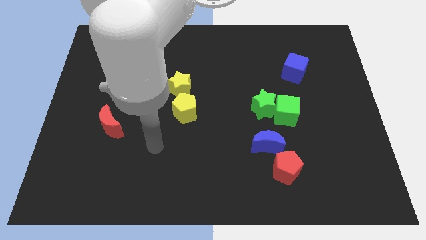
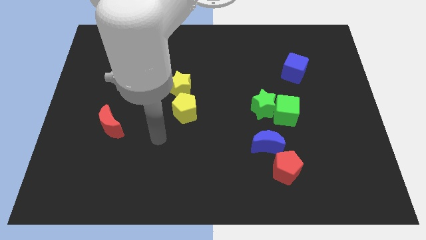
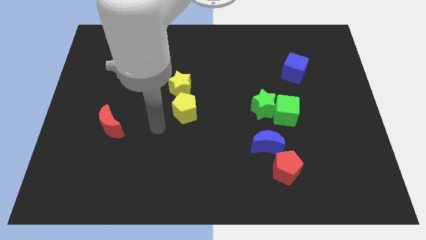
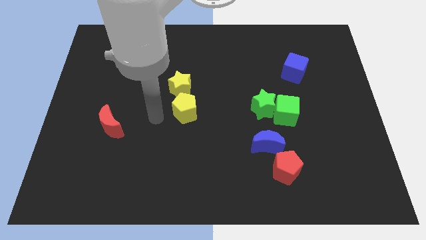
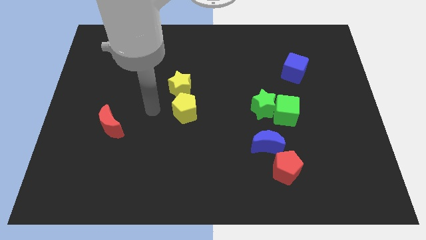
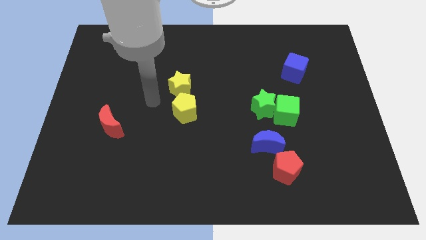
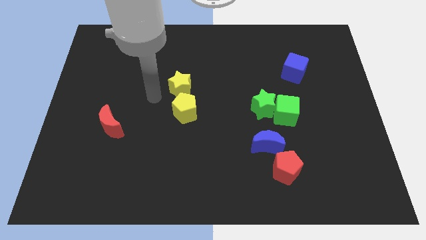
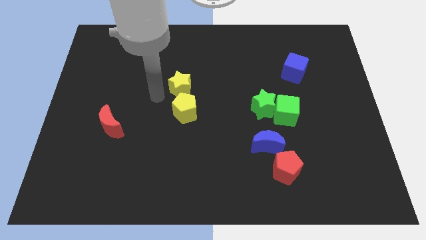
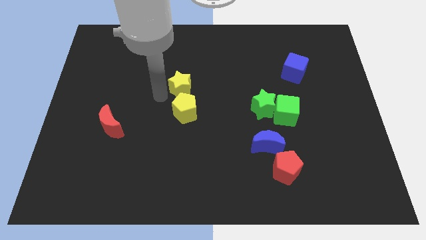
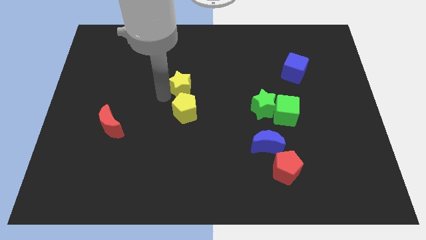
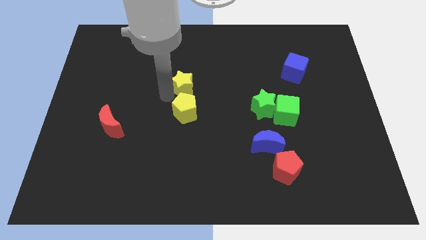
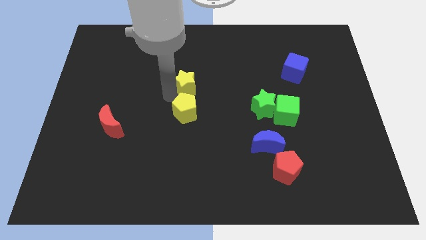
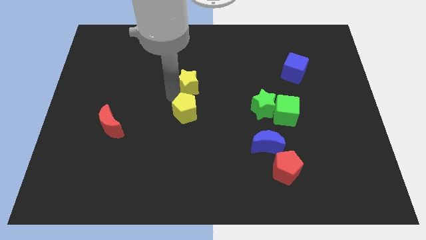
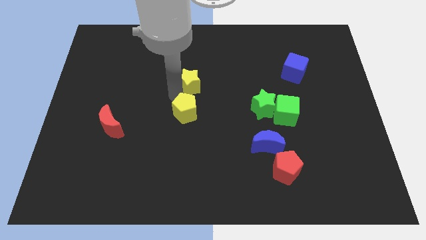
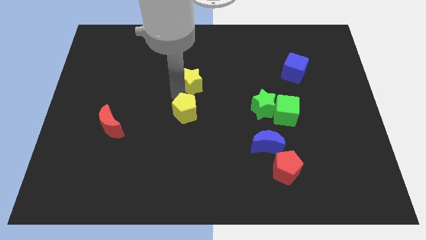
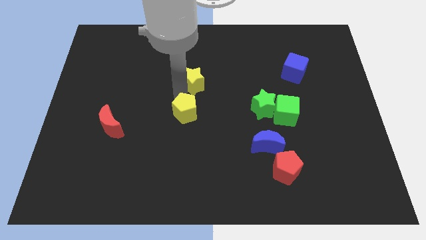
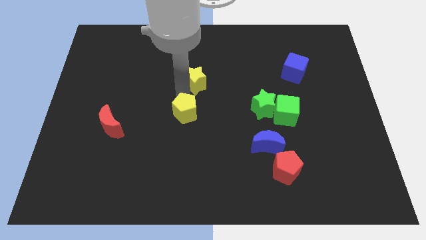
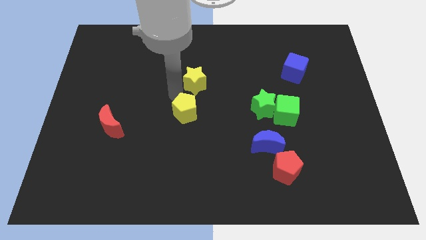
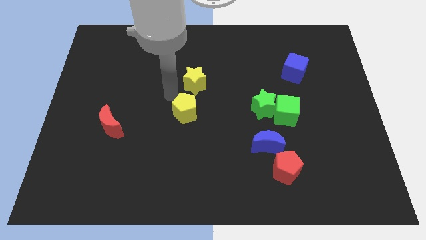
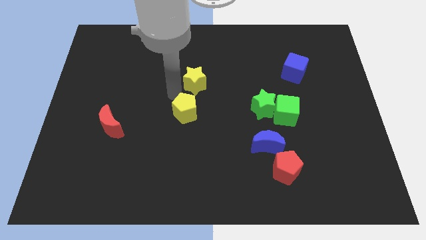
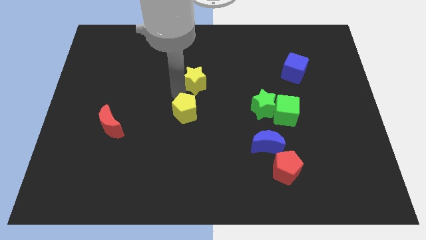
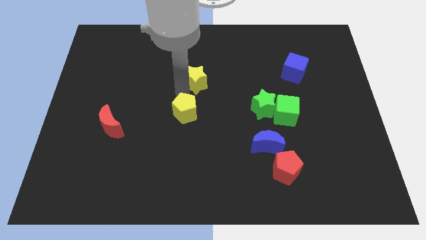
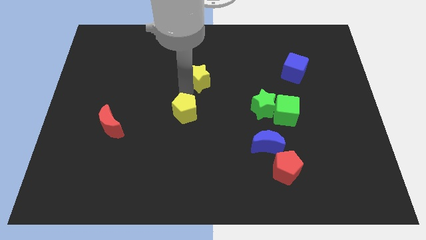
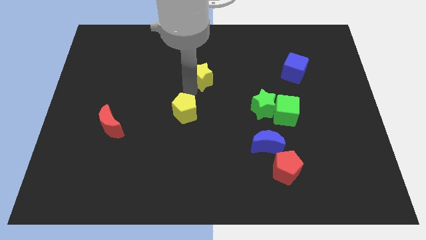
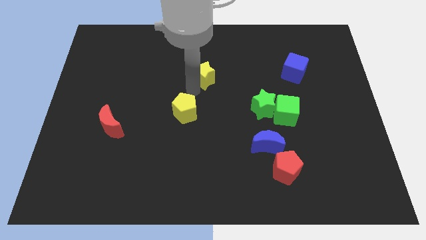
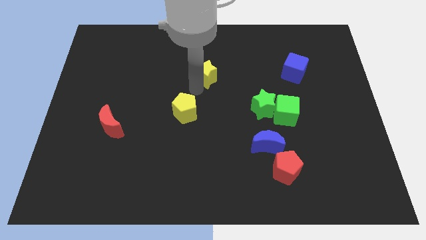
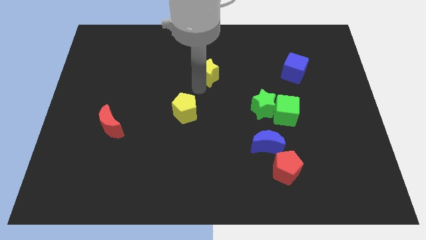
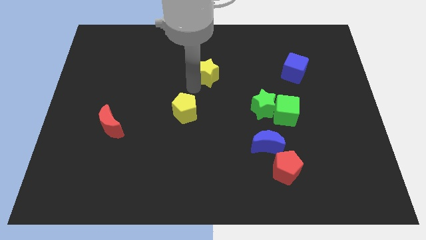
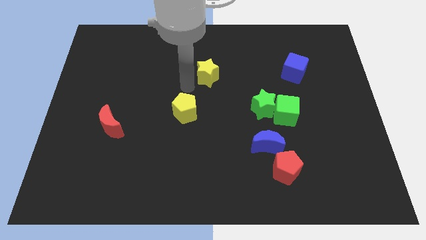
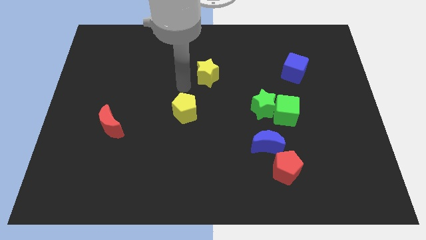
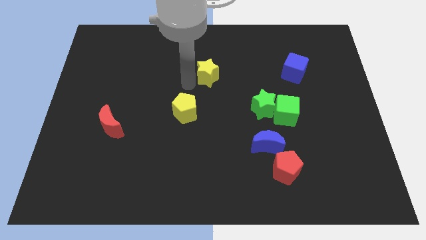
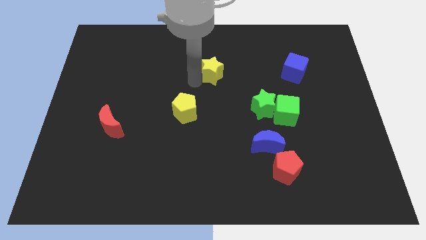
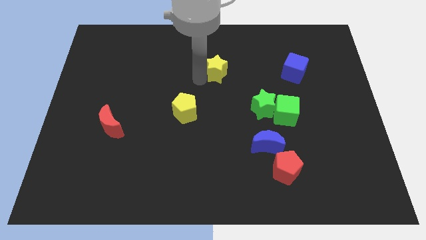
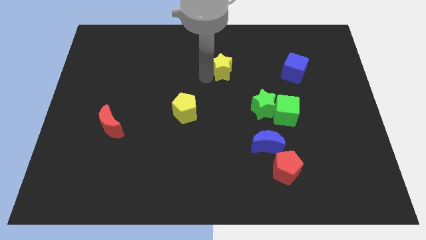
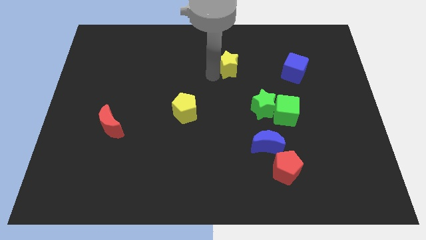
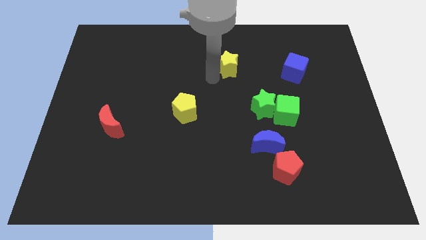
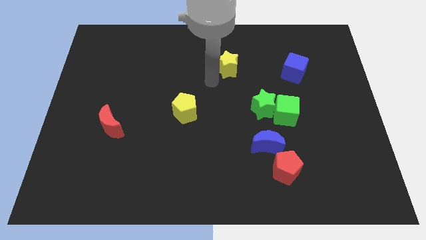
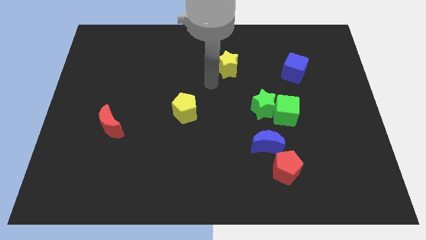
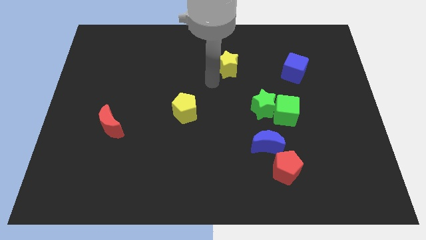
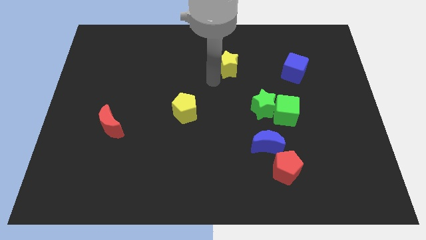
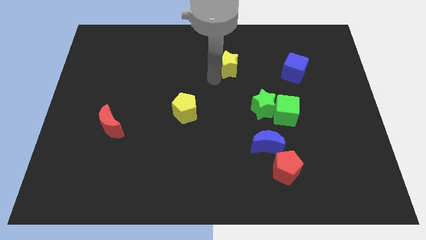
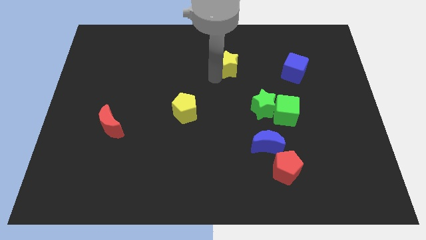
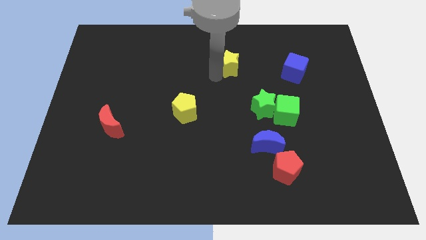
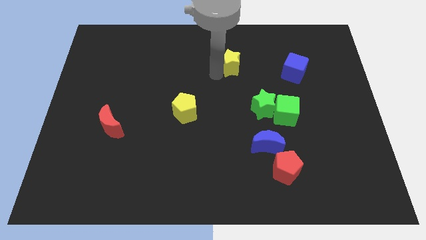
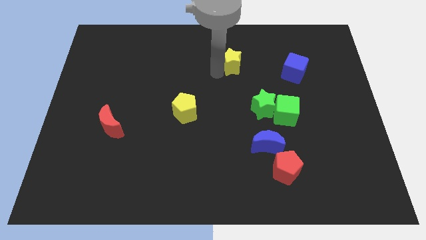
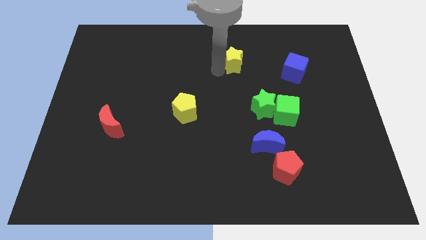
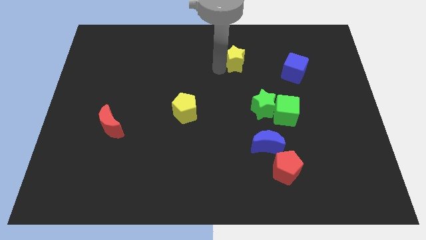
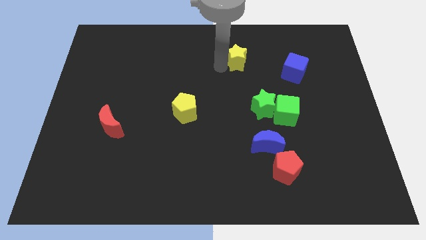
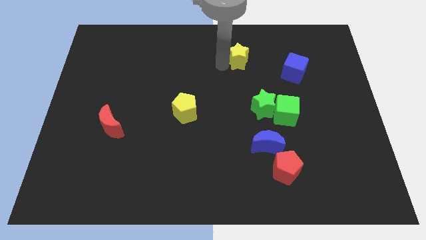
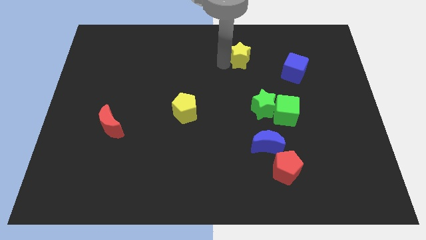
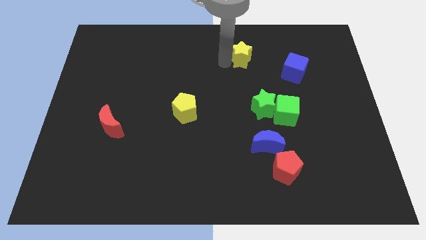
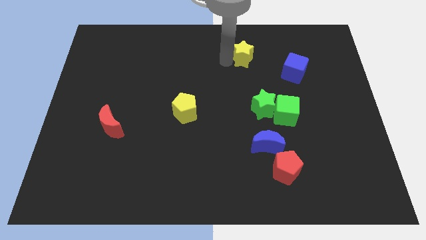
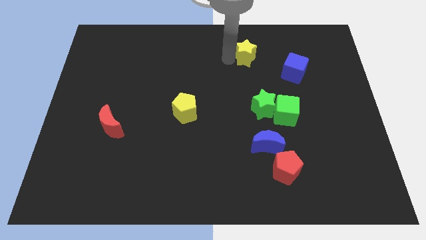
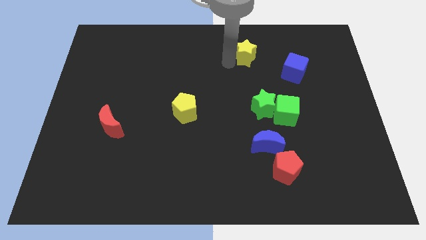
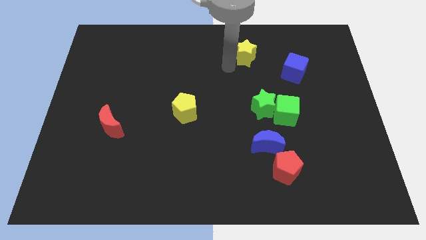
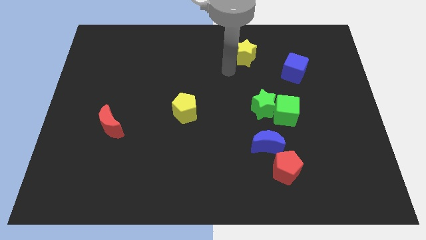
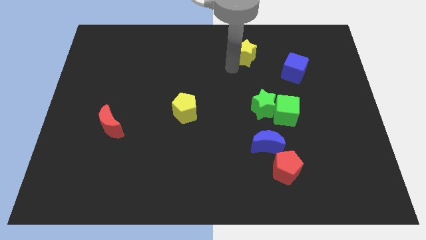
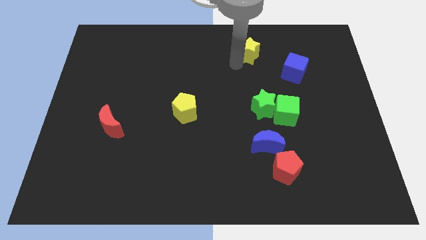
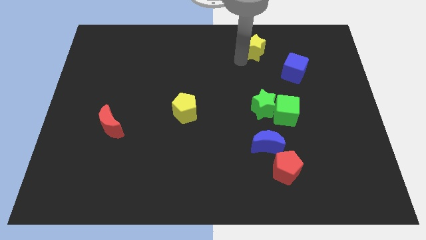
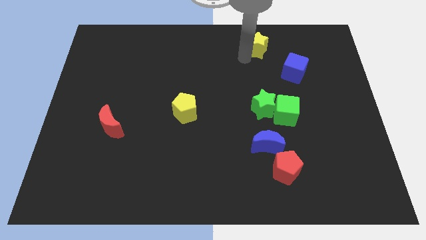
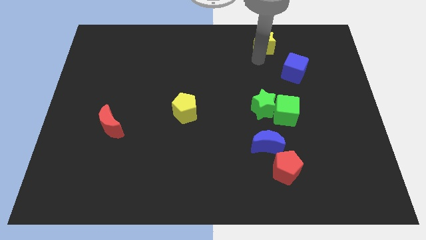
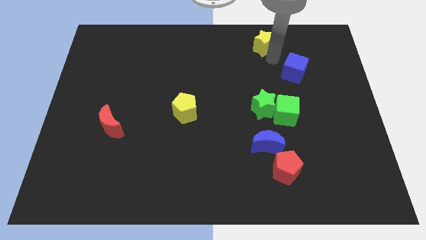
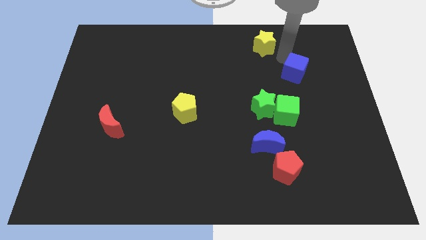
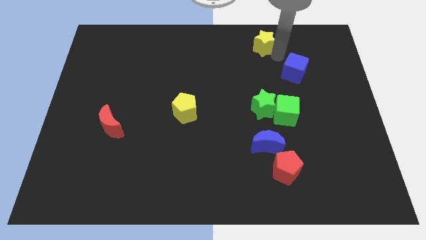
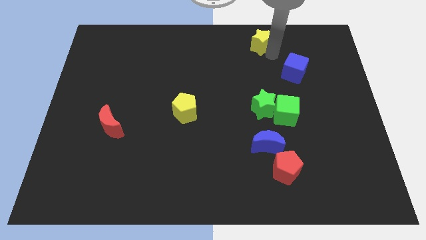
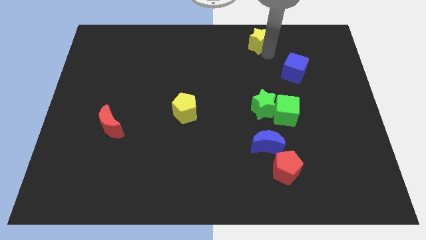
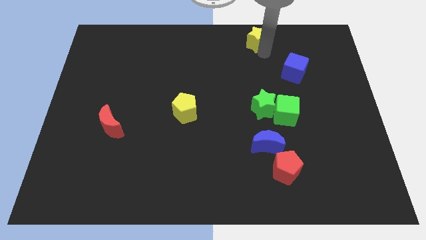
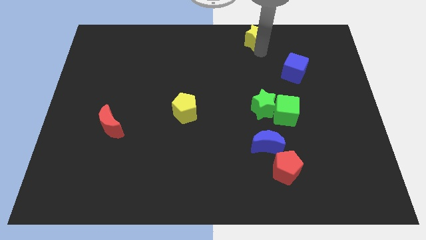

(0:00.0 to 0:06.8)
push the yellow star to the towards your base

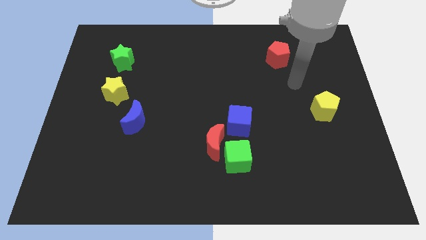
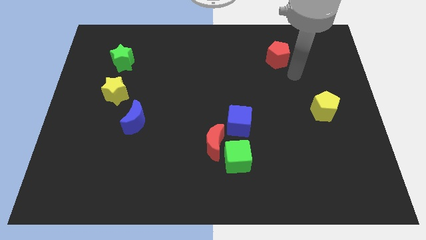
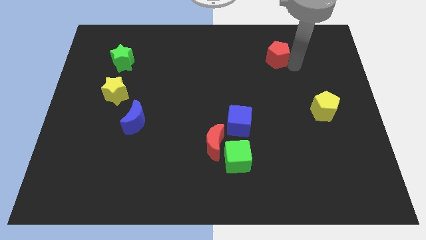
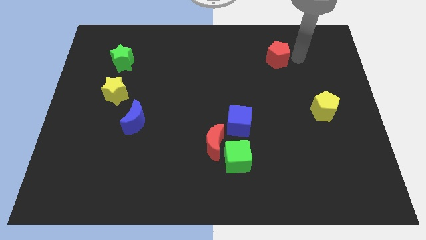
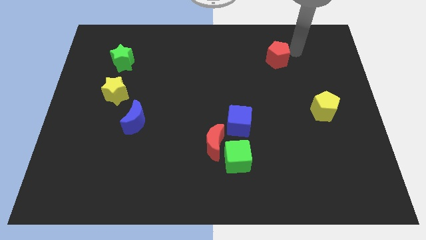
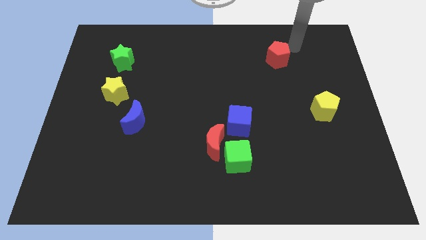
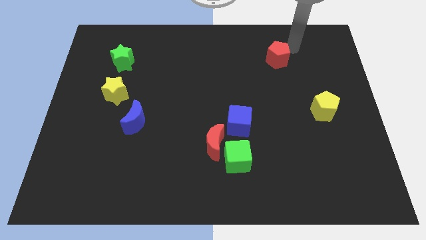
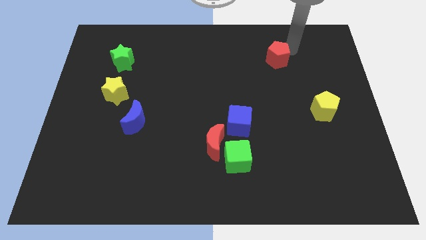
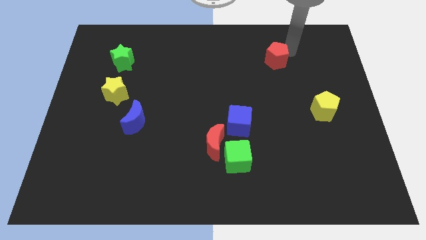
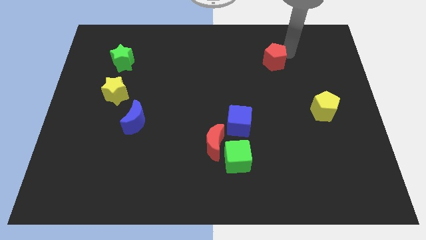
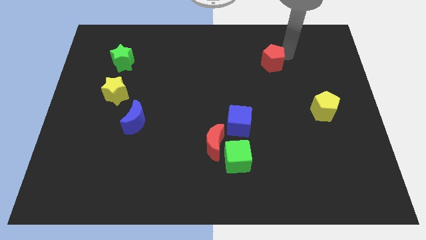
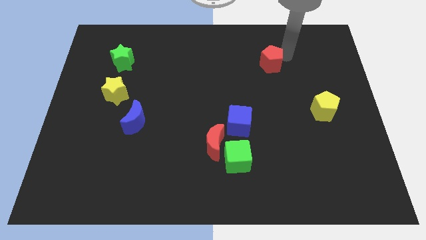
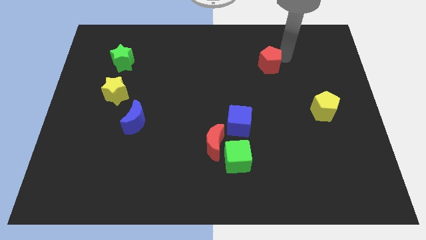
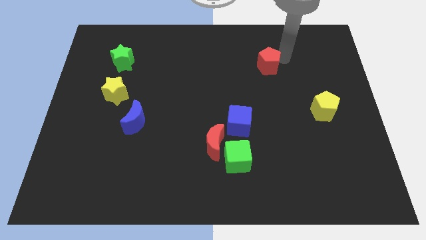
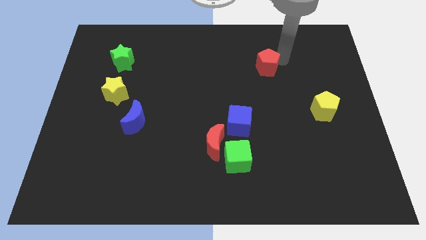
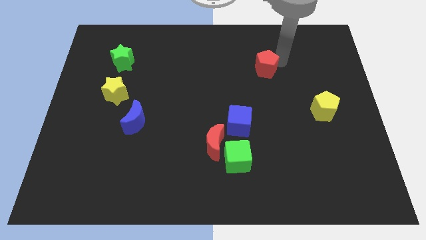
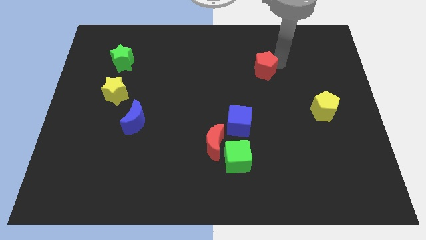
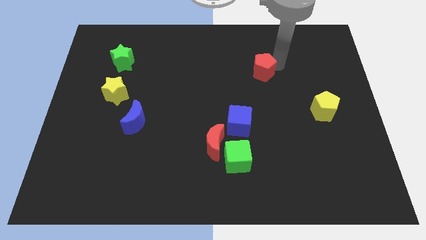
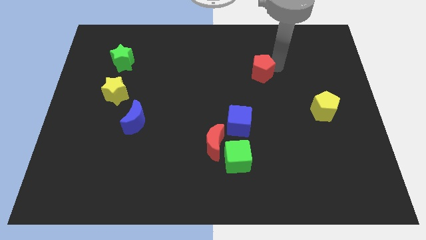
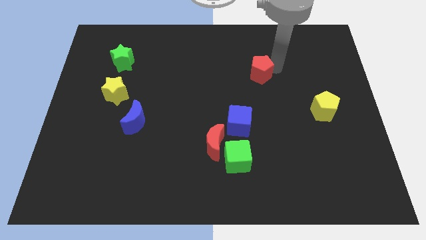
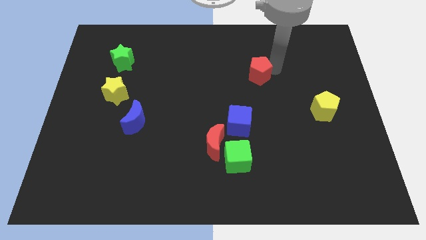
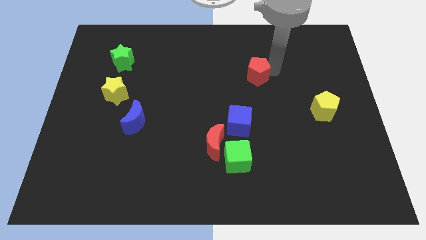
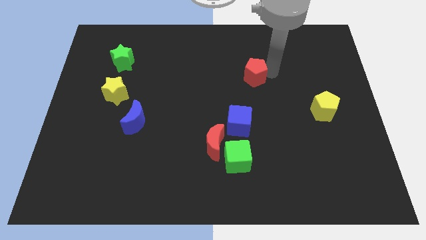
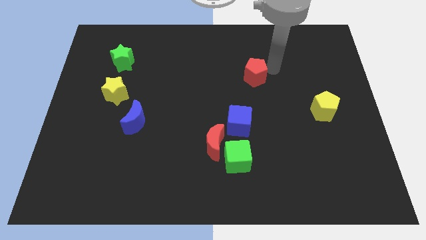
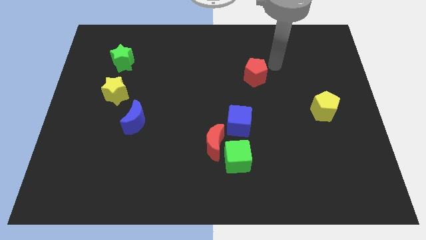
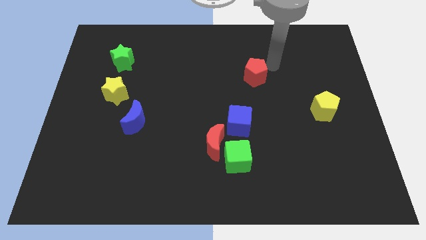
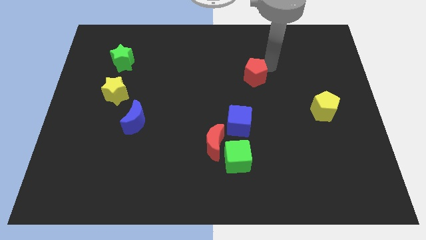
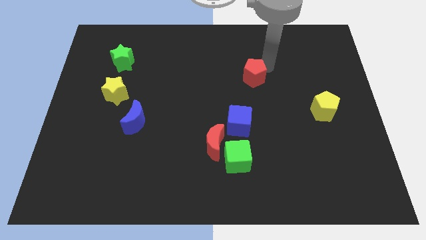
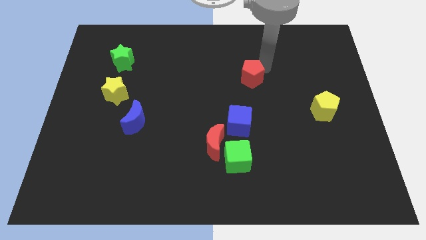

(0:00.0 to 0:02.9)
slide the red pentagon to the center of the board
